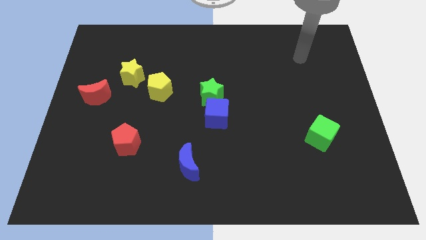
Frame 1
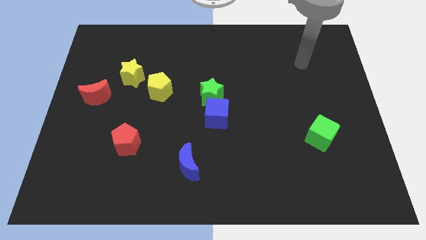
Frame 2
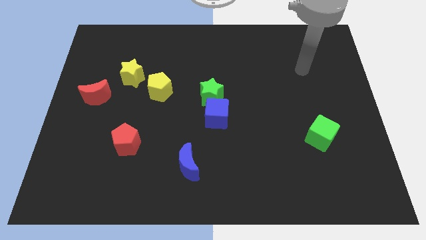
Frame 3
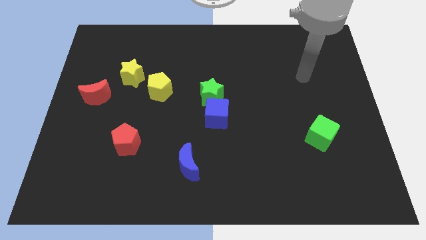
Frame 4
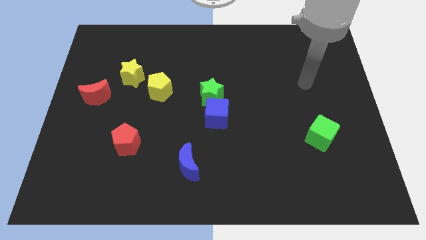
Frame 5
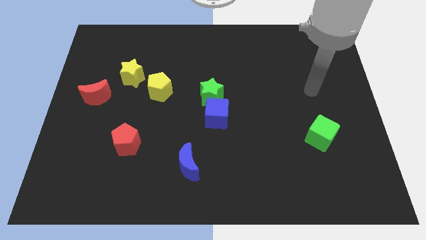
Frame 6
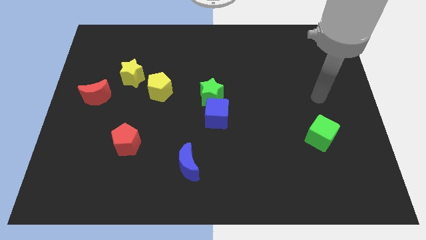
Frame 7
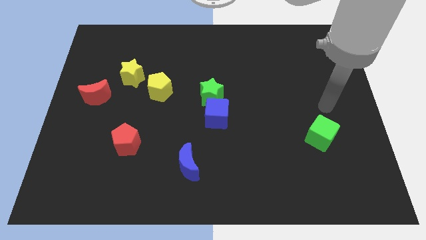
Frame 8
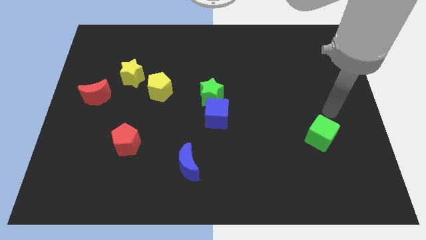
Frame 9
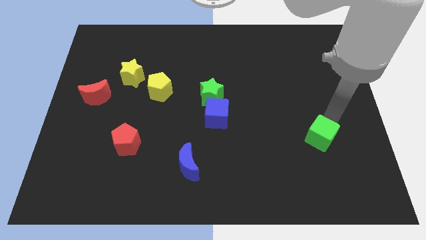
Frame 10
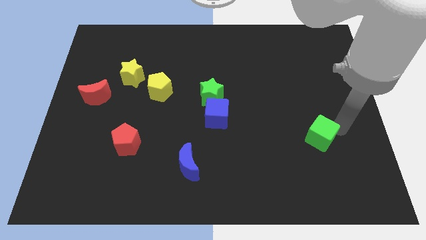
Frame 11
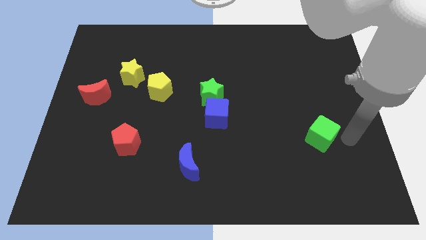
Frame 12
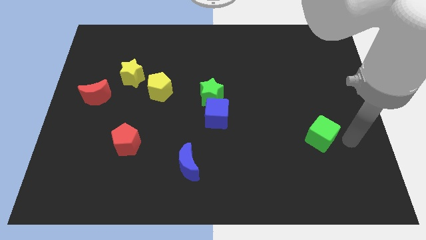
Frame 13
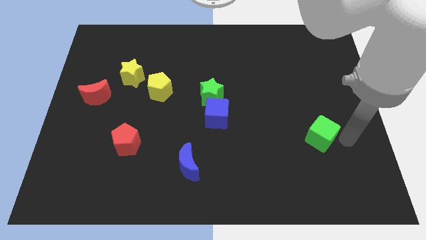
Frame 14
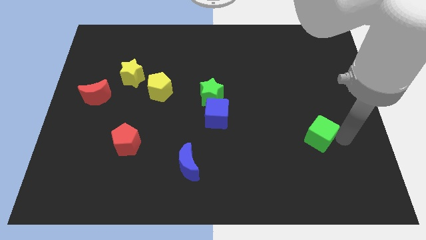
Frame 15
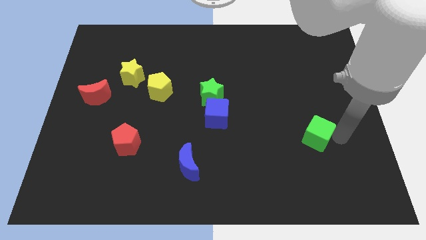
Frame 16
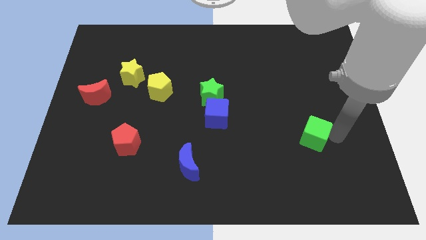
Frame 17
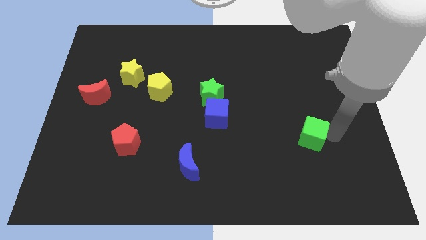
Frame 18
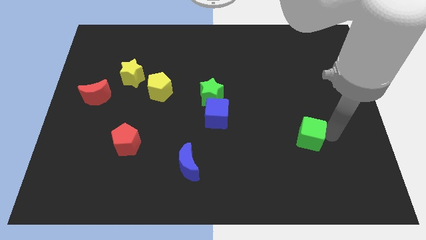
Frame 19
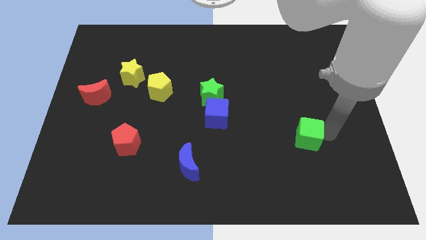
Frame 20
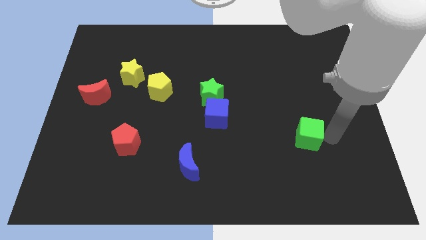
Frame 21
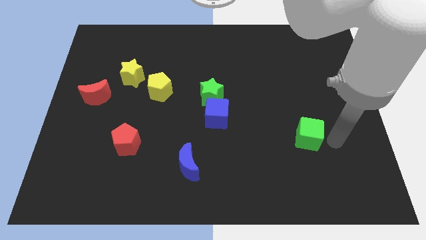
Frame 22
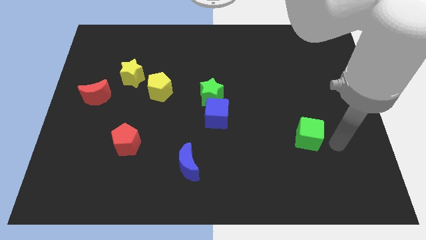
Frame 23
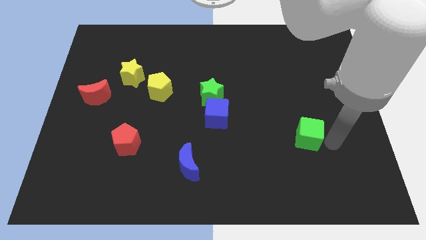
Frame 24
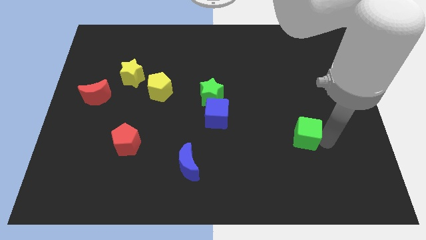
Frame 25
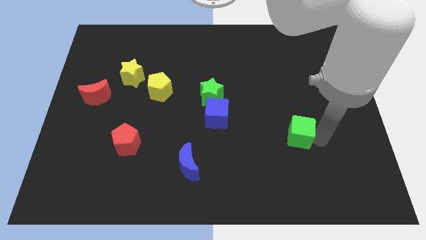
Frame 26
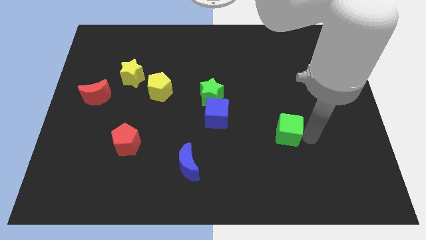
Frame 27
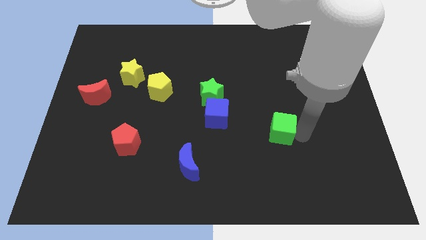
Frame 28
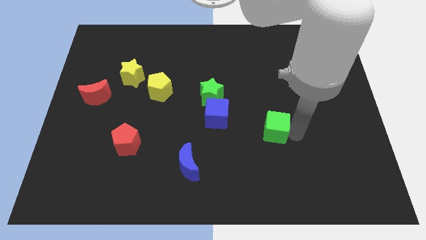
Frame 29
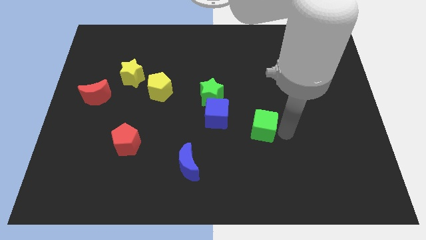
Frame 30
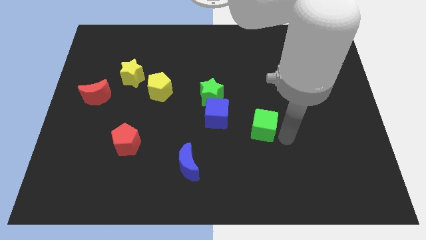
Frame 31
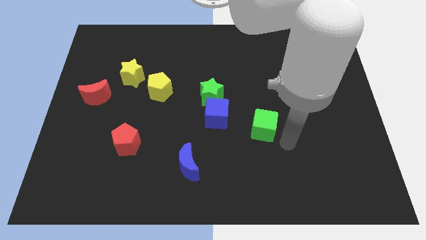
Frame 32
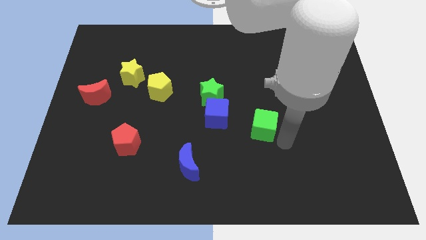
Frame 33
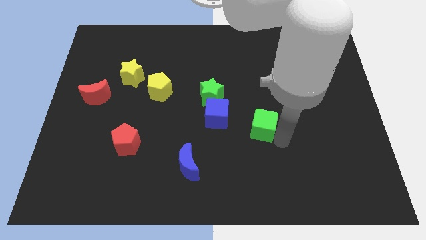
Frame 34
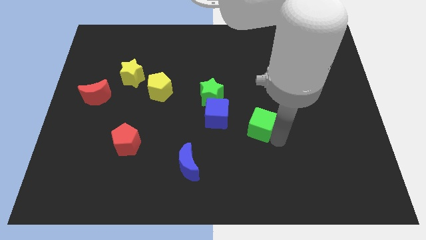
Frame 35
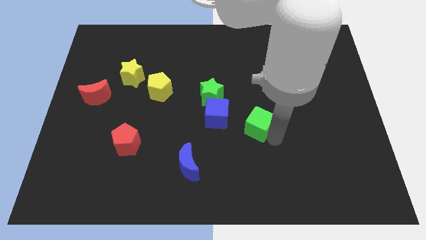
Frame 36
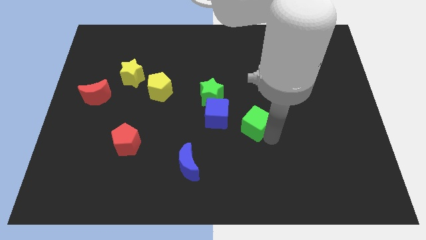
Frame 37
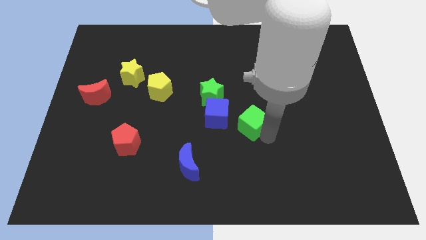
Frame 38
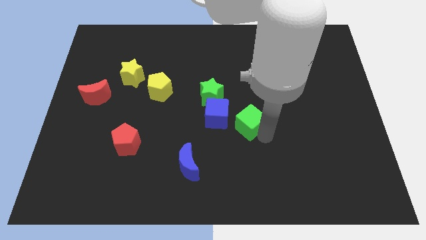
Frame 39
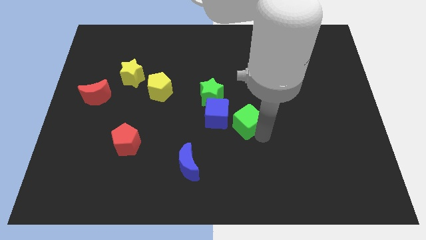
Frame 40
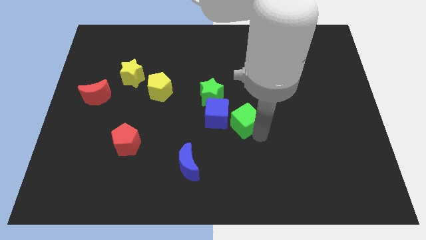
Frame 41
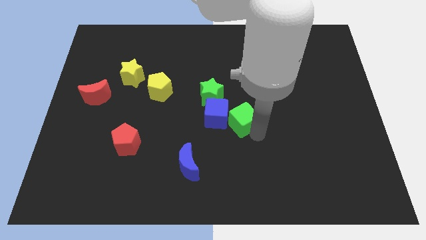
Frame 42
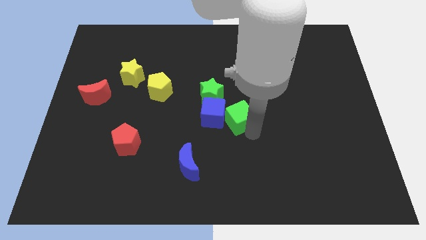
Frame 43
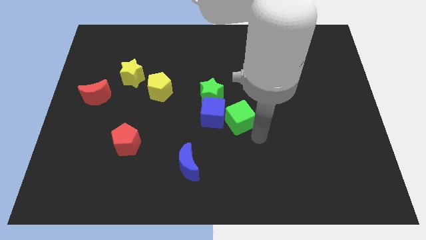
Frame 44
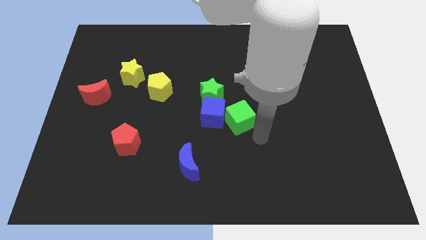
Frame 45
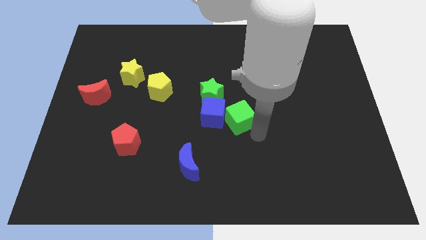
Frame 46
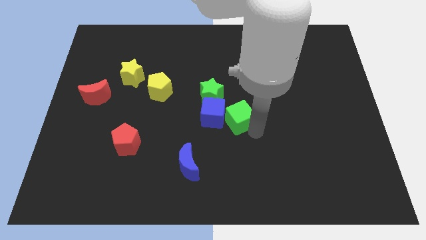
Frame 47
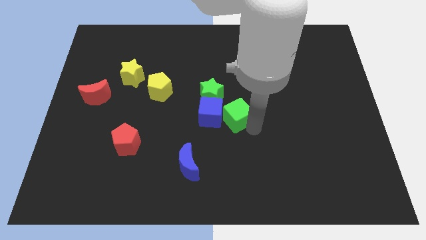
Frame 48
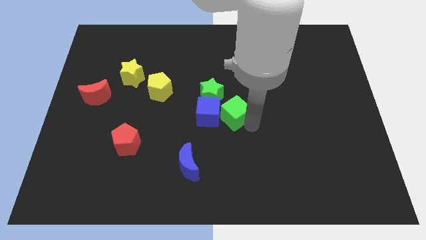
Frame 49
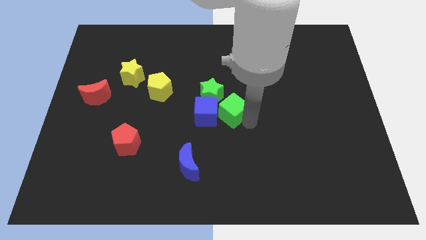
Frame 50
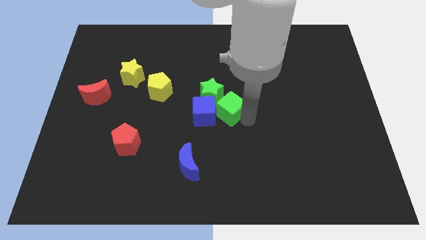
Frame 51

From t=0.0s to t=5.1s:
push the green cube close to the green star

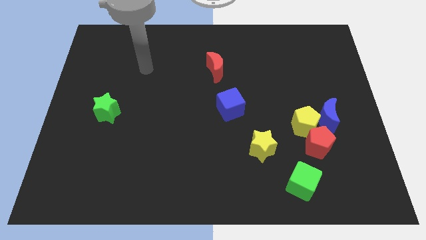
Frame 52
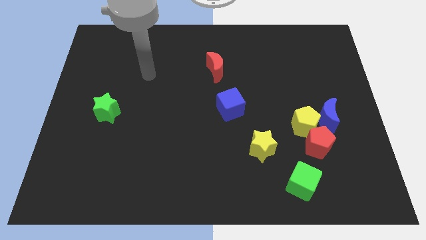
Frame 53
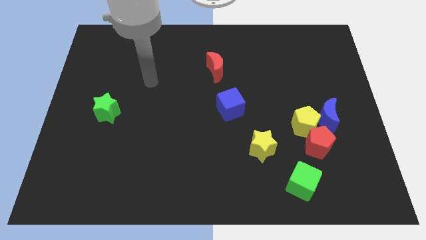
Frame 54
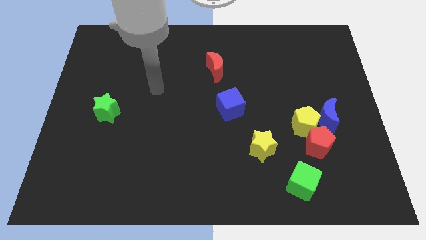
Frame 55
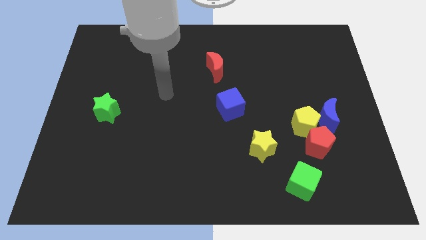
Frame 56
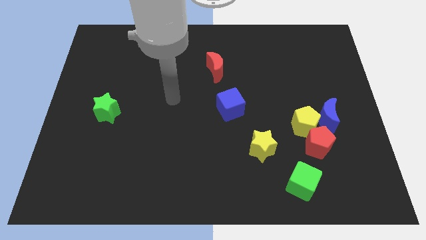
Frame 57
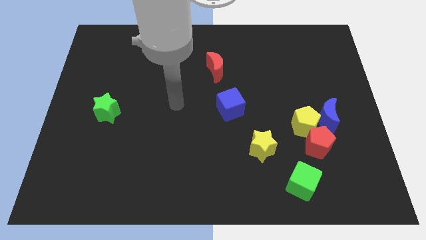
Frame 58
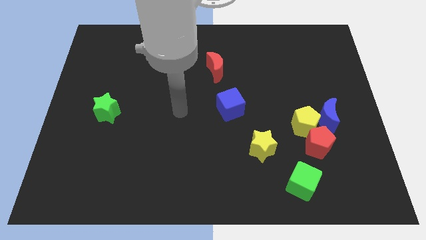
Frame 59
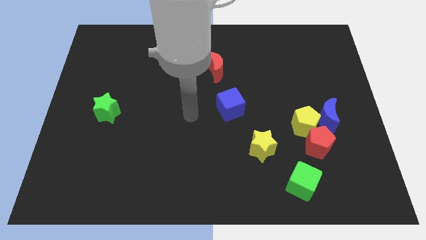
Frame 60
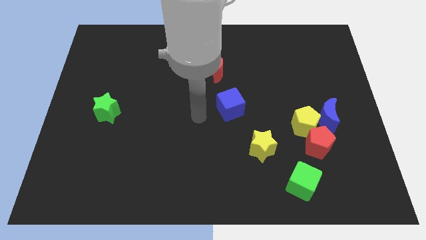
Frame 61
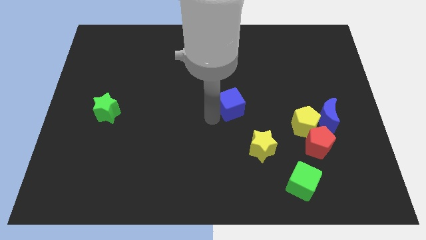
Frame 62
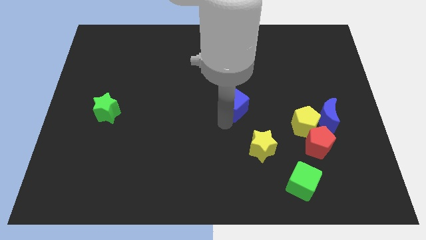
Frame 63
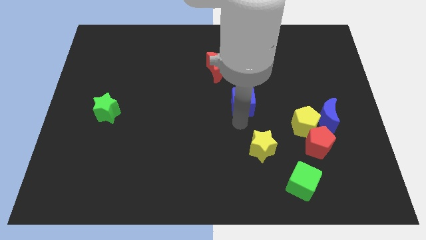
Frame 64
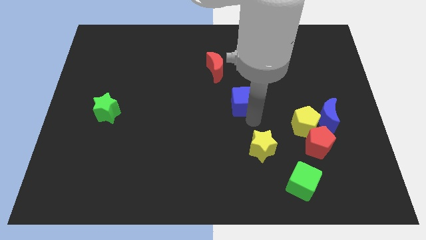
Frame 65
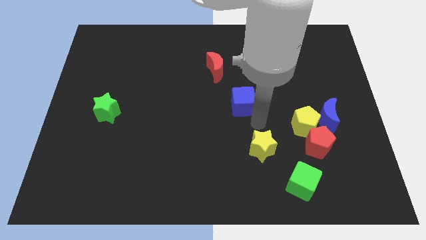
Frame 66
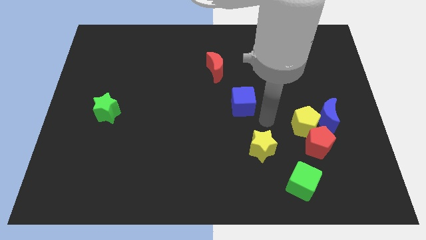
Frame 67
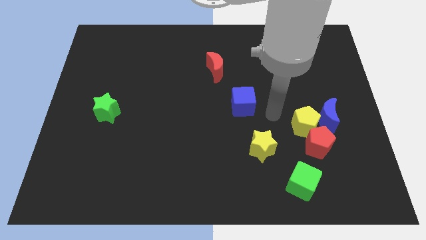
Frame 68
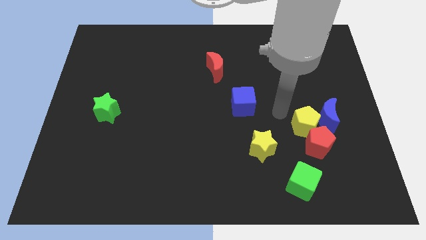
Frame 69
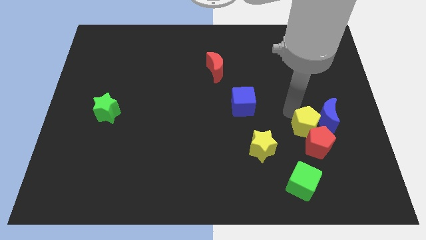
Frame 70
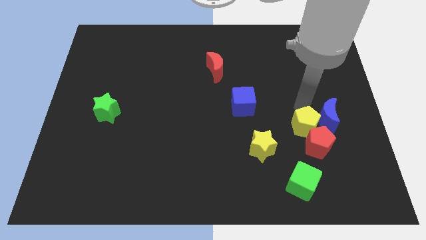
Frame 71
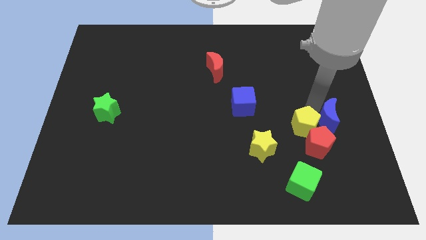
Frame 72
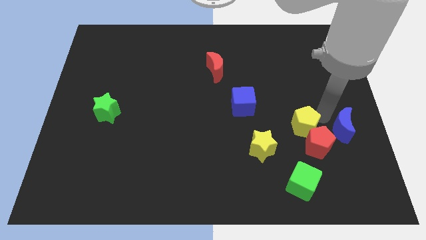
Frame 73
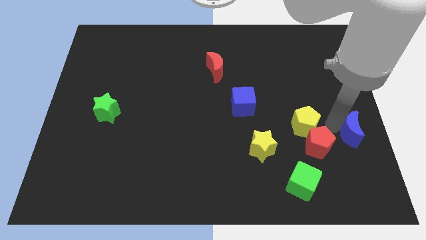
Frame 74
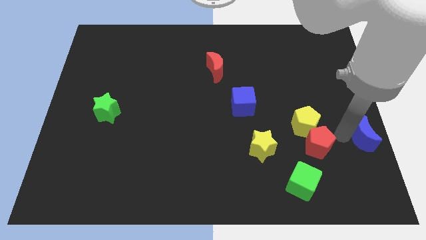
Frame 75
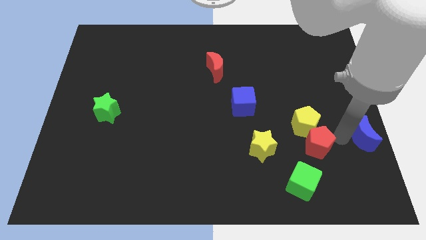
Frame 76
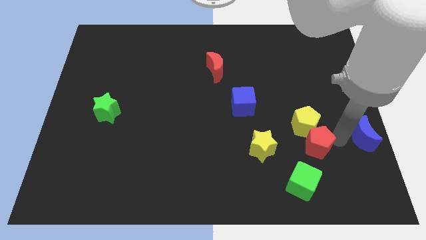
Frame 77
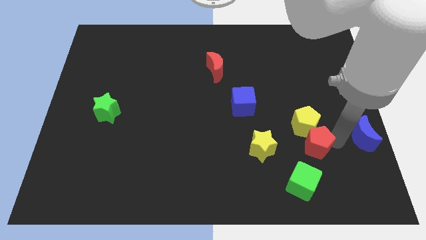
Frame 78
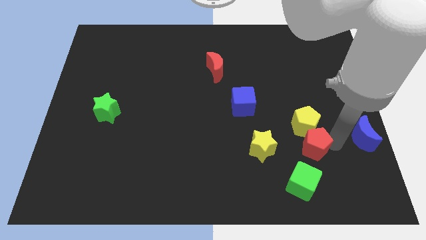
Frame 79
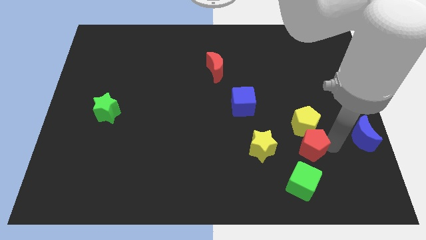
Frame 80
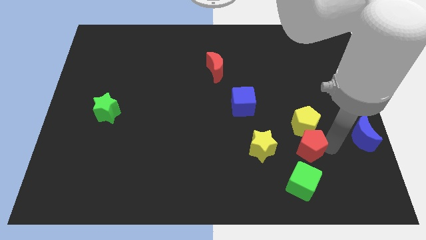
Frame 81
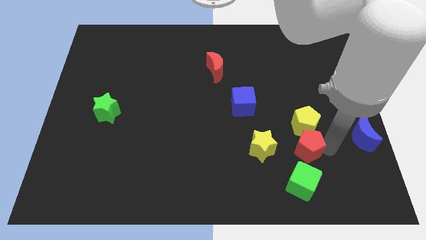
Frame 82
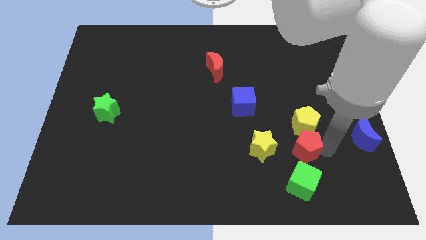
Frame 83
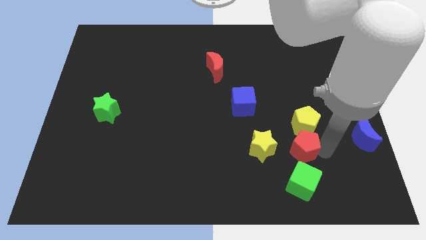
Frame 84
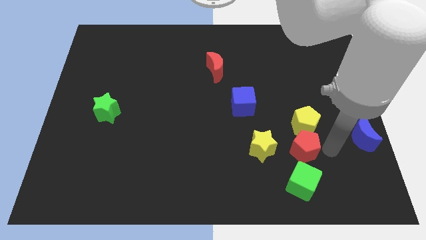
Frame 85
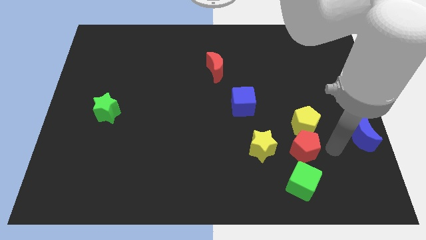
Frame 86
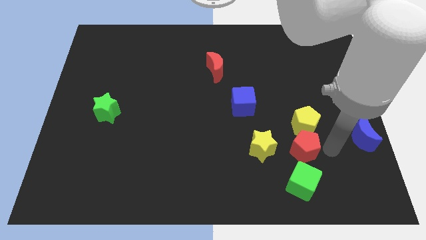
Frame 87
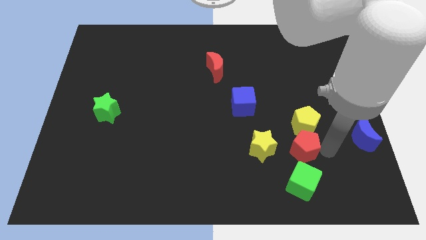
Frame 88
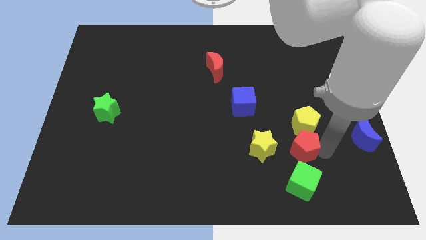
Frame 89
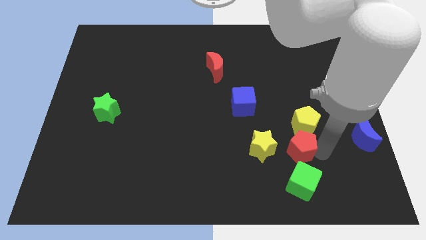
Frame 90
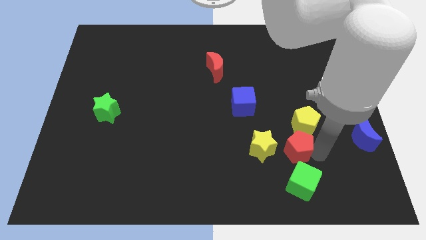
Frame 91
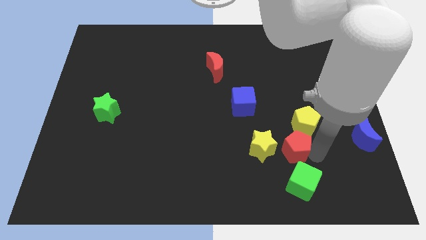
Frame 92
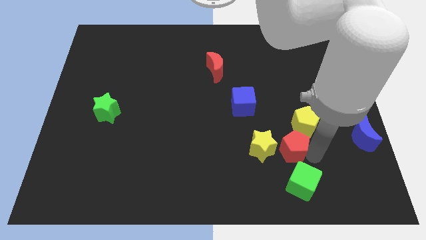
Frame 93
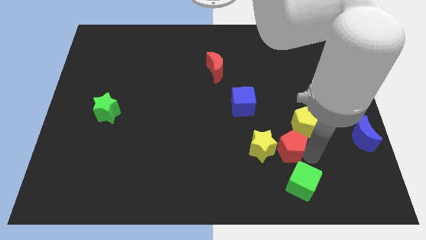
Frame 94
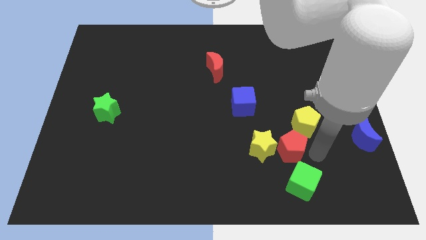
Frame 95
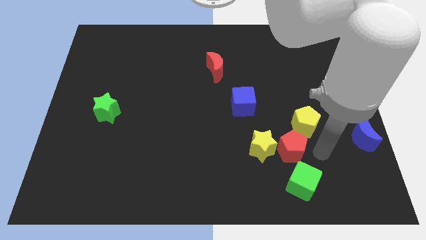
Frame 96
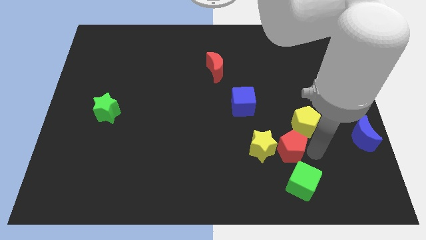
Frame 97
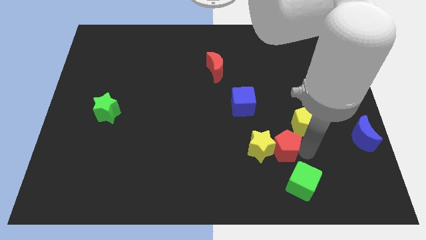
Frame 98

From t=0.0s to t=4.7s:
push the red pentagon close to the yellow star
